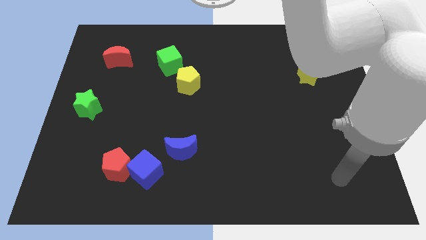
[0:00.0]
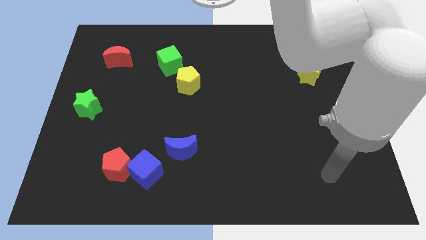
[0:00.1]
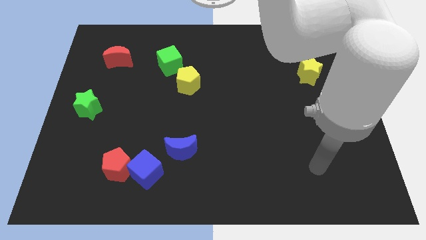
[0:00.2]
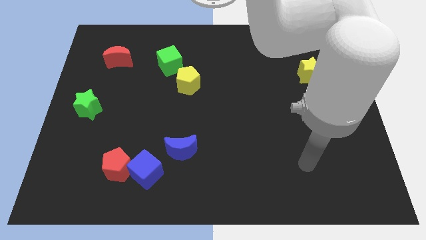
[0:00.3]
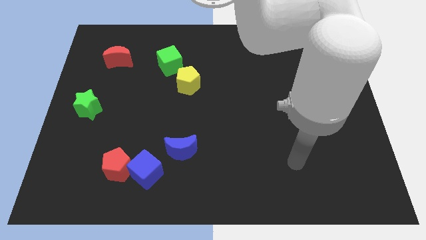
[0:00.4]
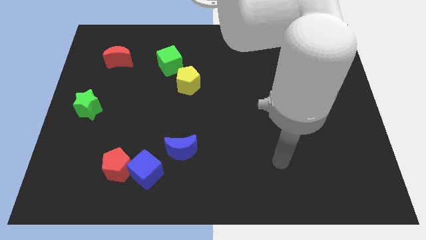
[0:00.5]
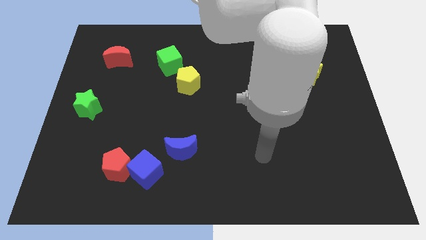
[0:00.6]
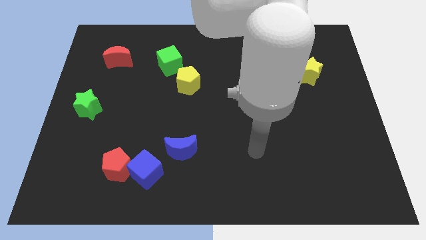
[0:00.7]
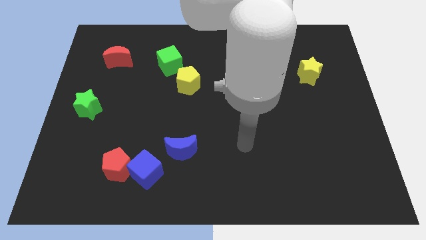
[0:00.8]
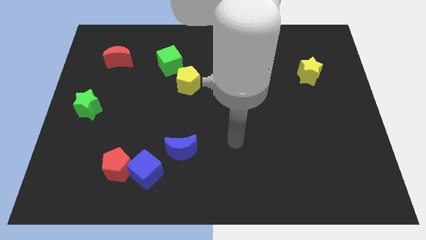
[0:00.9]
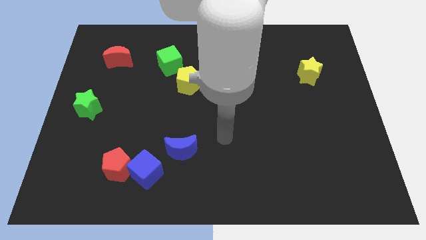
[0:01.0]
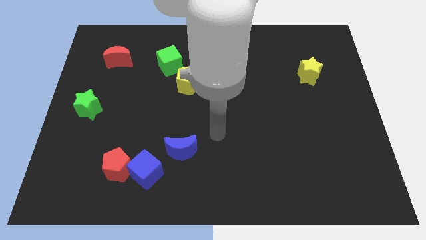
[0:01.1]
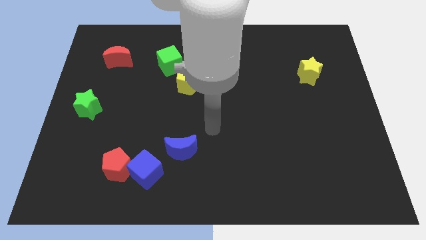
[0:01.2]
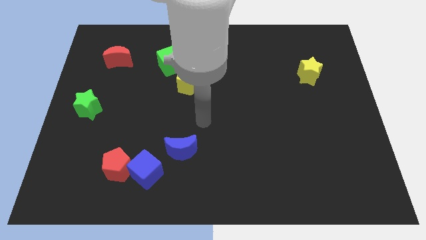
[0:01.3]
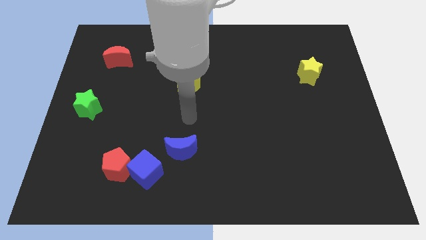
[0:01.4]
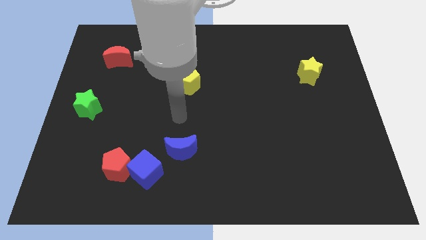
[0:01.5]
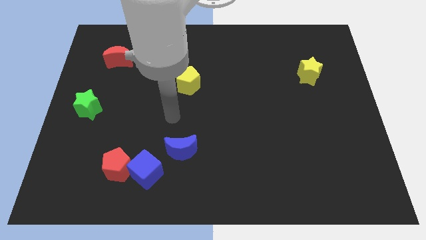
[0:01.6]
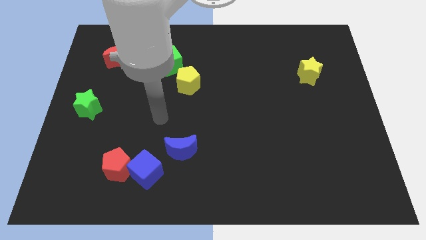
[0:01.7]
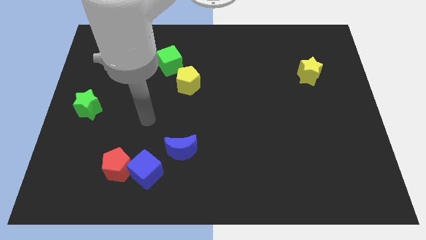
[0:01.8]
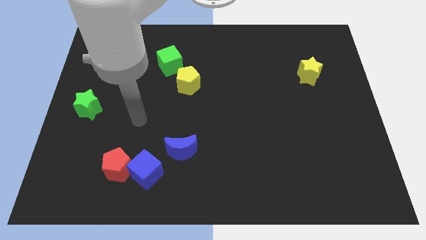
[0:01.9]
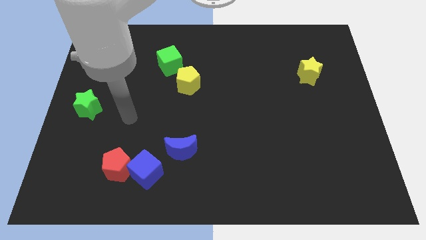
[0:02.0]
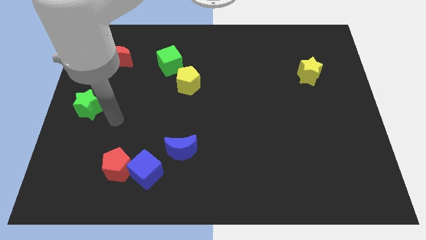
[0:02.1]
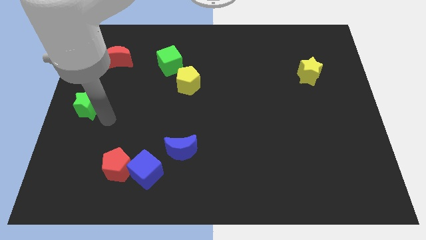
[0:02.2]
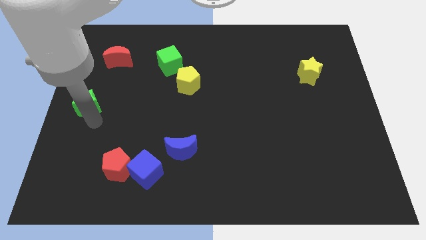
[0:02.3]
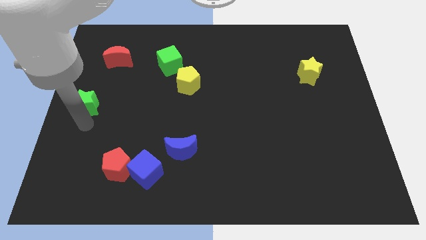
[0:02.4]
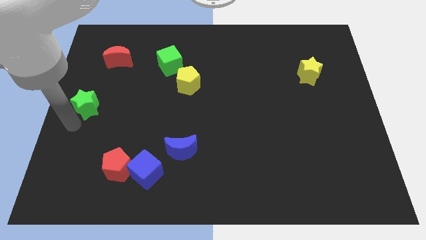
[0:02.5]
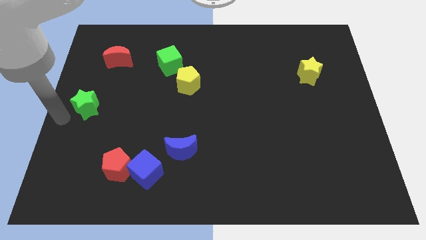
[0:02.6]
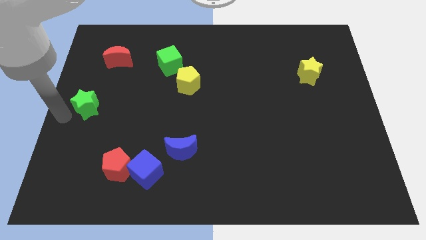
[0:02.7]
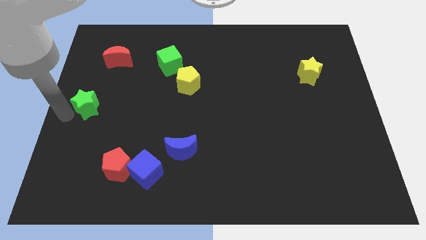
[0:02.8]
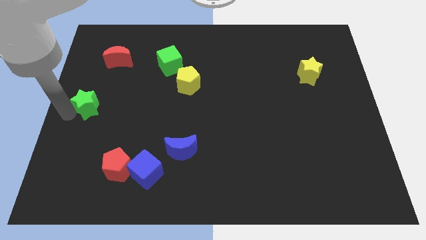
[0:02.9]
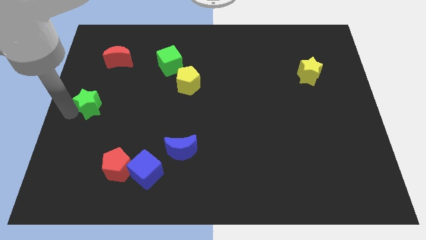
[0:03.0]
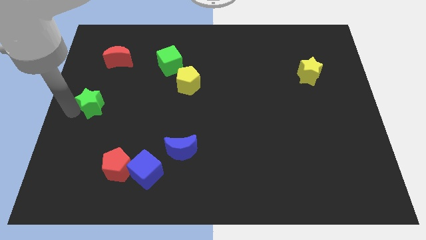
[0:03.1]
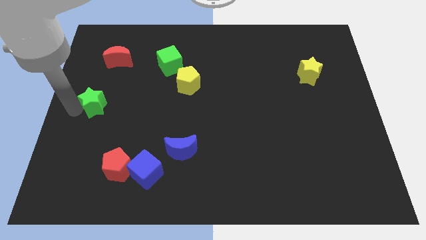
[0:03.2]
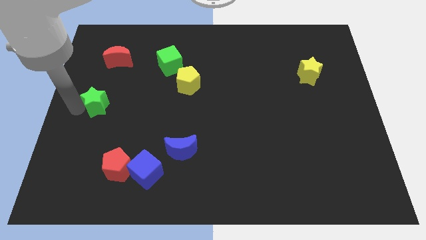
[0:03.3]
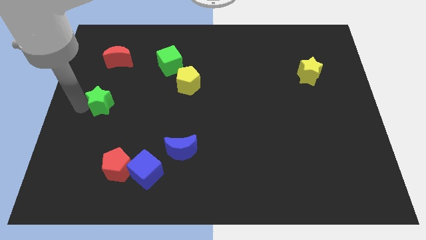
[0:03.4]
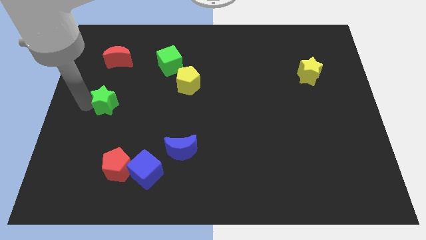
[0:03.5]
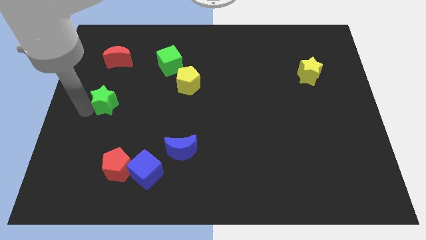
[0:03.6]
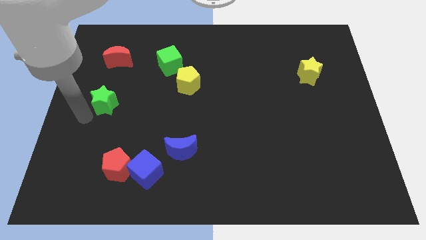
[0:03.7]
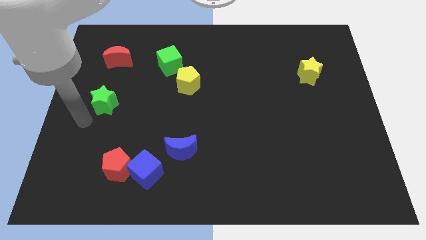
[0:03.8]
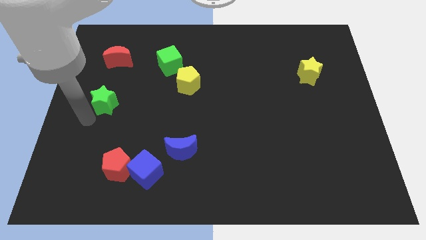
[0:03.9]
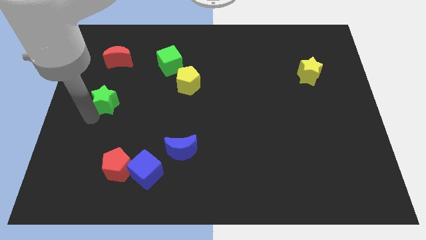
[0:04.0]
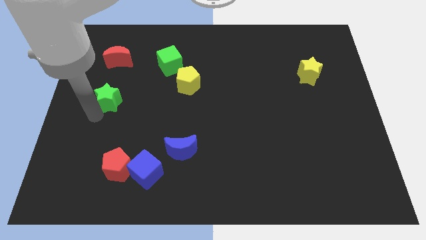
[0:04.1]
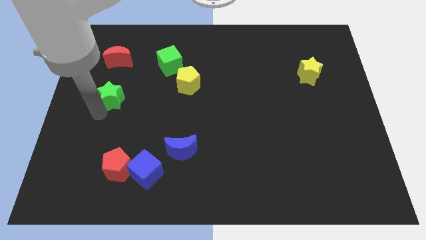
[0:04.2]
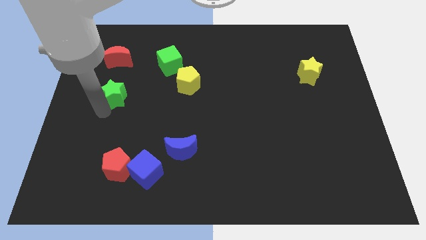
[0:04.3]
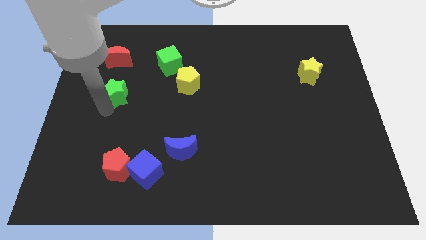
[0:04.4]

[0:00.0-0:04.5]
move the green star a bit upwards and to the right diagonally

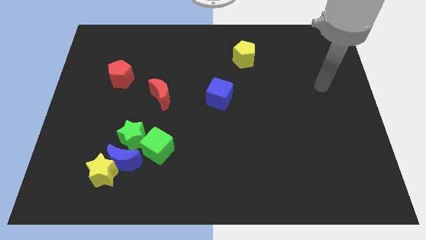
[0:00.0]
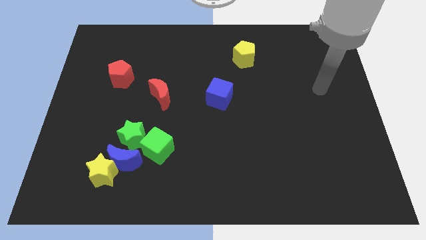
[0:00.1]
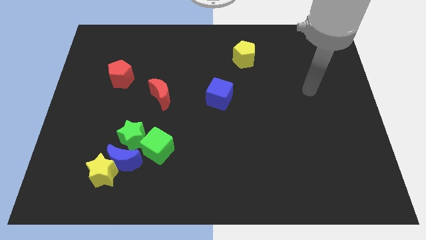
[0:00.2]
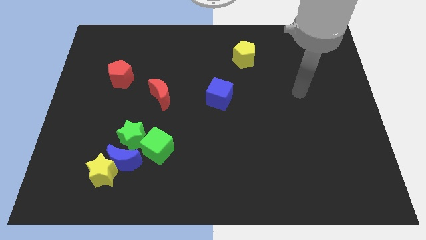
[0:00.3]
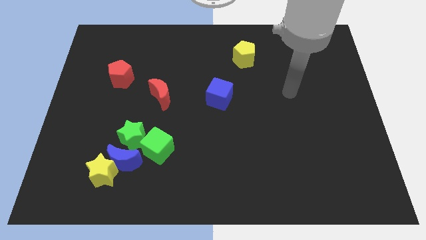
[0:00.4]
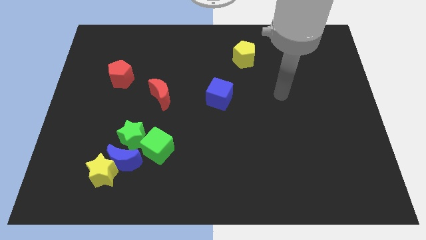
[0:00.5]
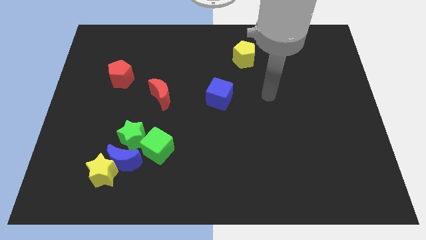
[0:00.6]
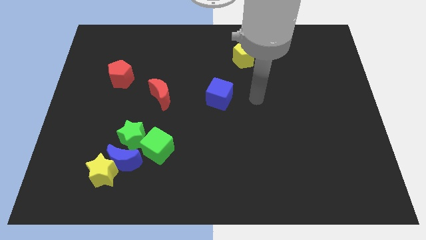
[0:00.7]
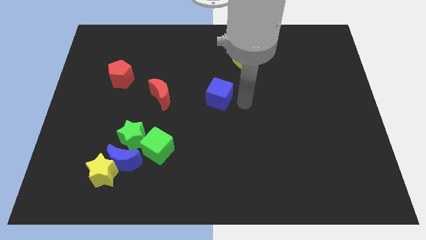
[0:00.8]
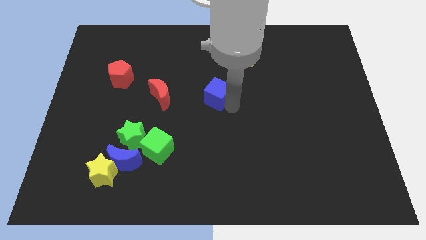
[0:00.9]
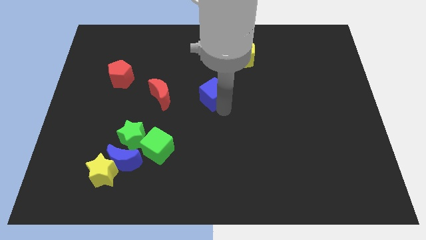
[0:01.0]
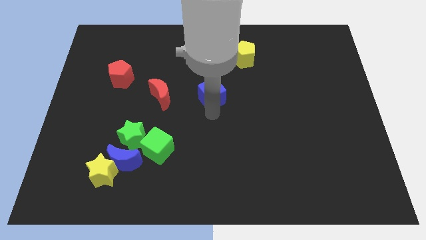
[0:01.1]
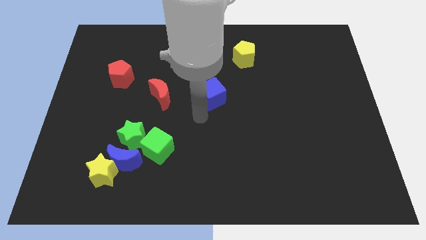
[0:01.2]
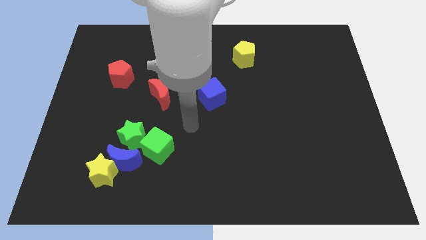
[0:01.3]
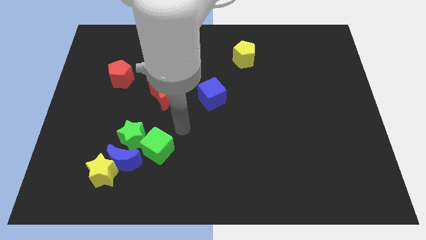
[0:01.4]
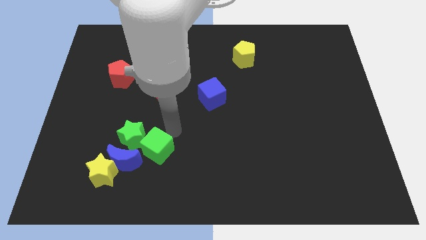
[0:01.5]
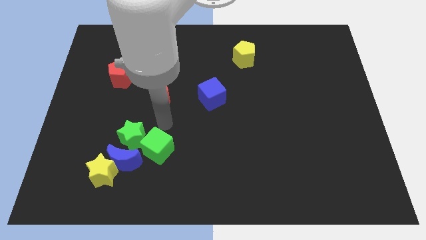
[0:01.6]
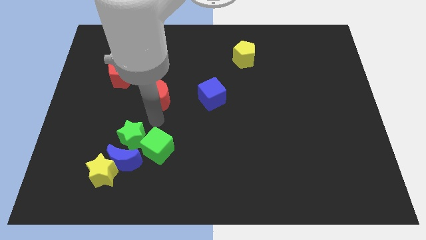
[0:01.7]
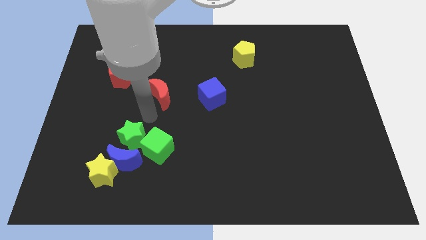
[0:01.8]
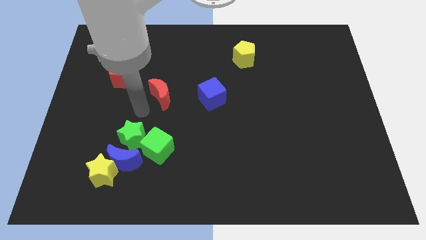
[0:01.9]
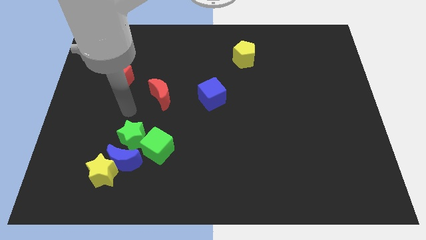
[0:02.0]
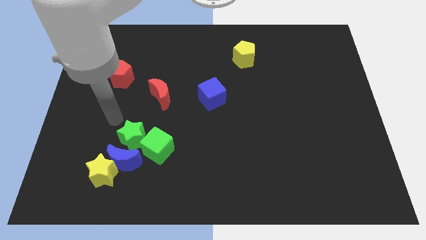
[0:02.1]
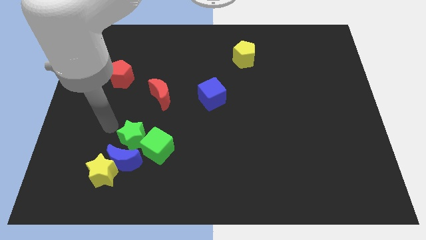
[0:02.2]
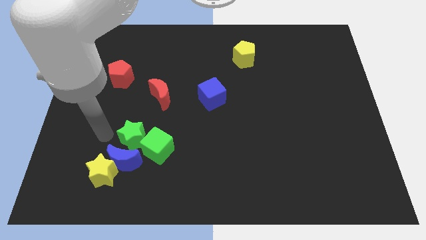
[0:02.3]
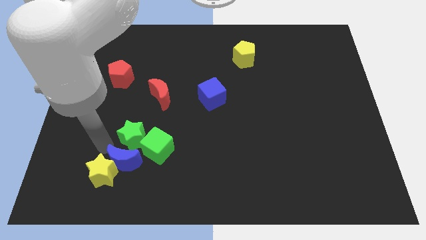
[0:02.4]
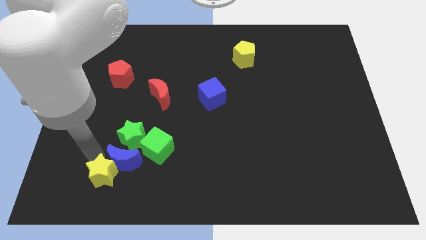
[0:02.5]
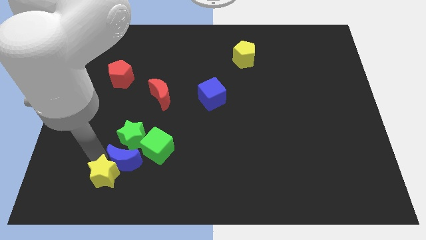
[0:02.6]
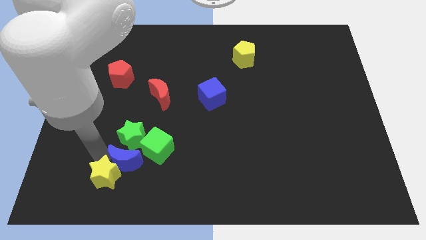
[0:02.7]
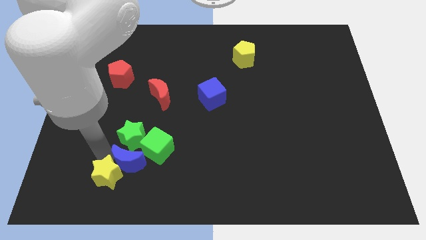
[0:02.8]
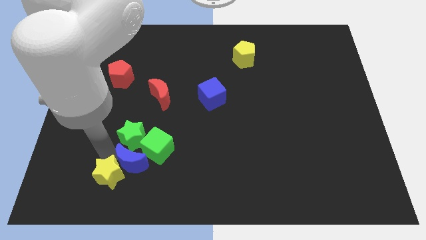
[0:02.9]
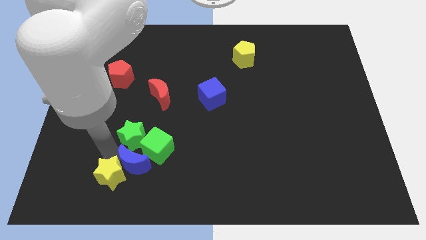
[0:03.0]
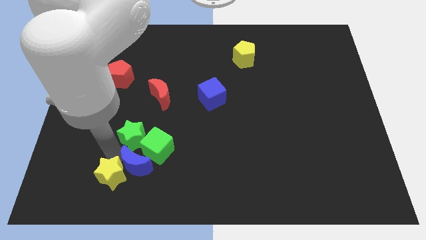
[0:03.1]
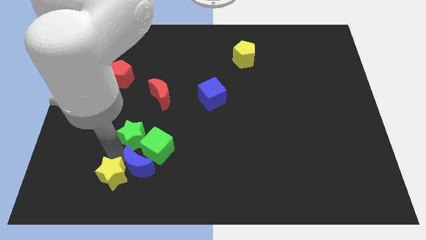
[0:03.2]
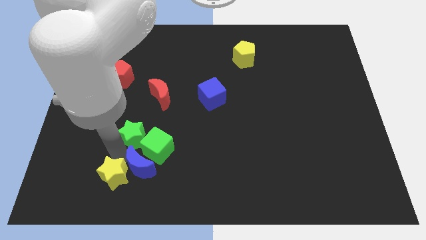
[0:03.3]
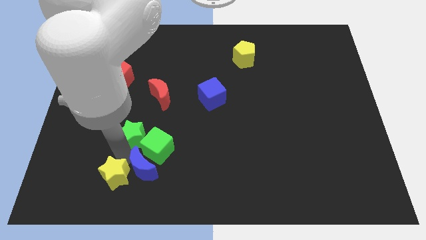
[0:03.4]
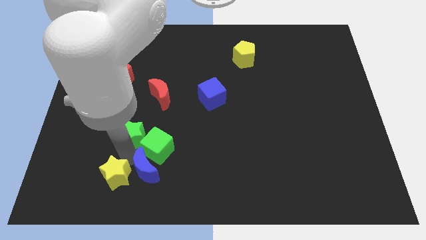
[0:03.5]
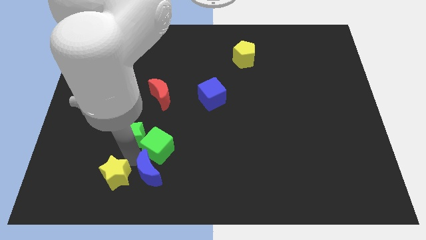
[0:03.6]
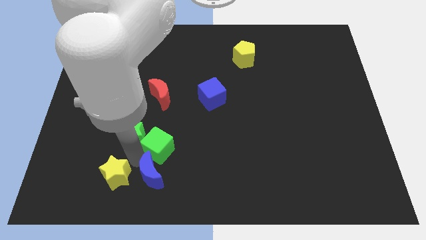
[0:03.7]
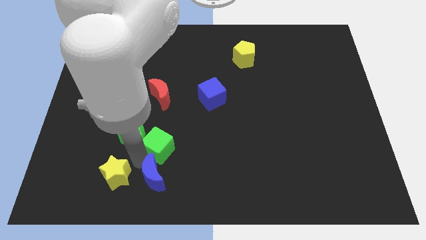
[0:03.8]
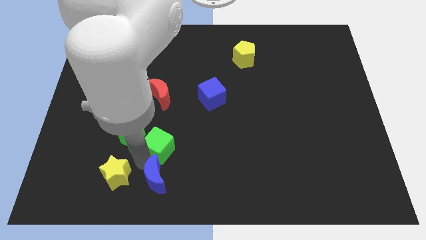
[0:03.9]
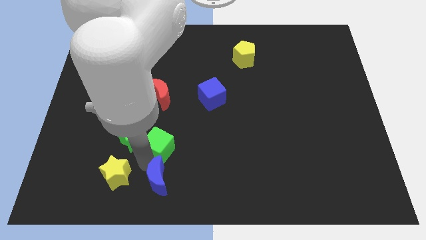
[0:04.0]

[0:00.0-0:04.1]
move the blue moon somewhat right
